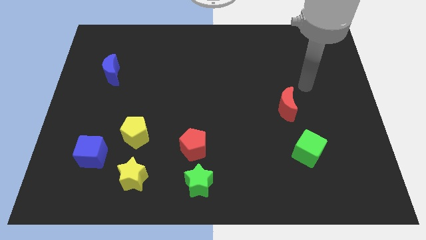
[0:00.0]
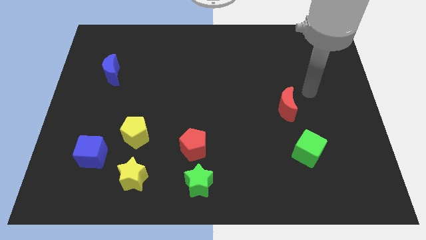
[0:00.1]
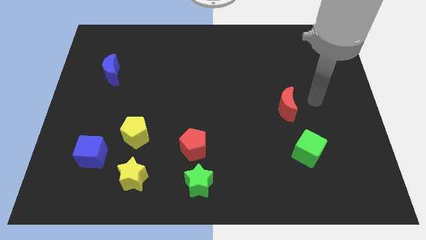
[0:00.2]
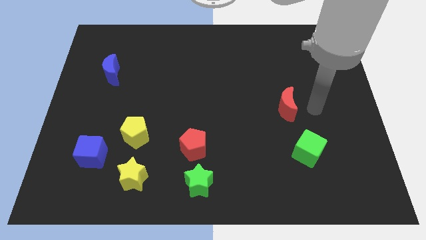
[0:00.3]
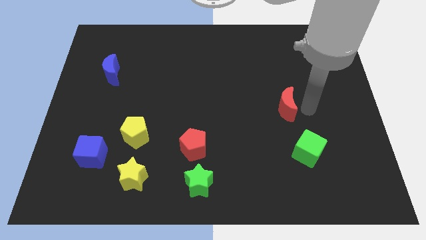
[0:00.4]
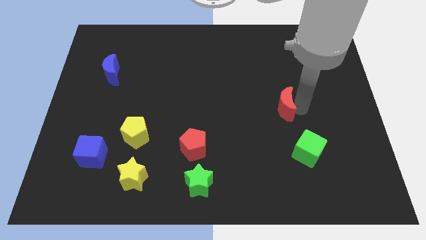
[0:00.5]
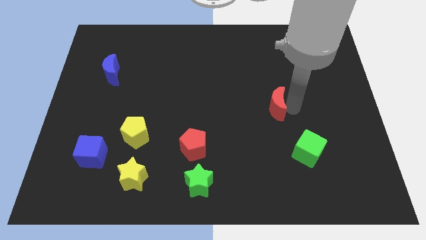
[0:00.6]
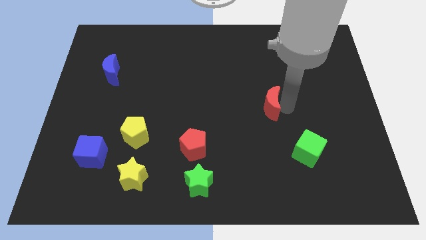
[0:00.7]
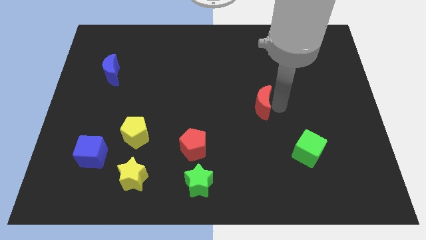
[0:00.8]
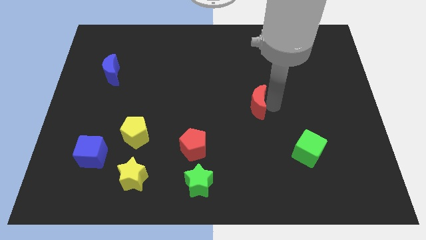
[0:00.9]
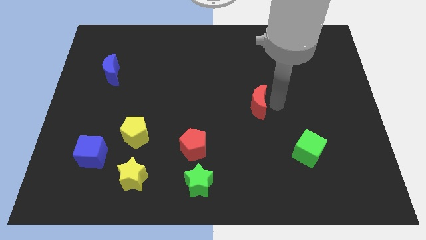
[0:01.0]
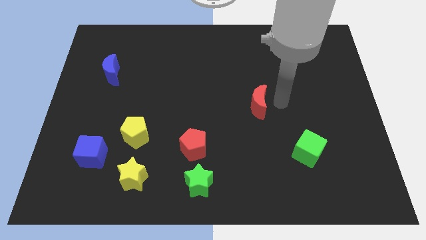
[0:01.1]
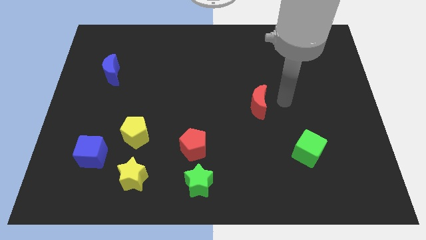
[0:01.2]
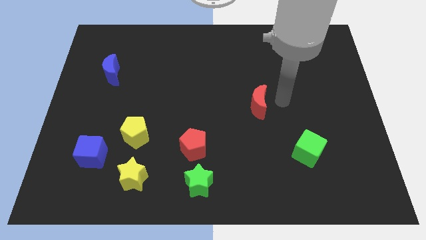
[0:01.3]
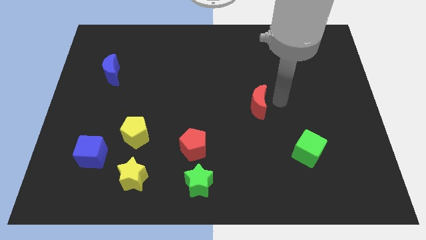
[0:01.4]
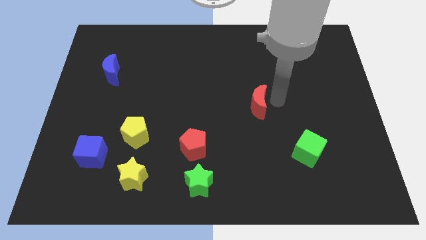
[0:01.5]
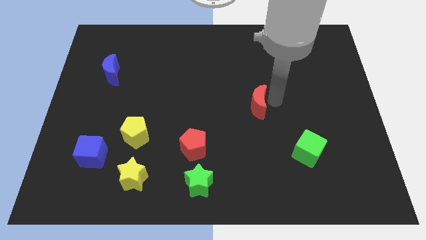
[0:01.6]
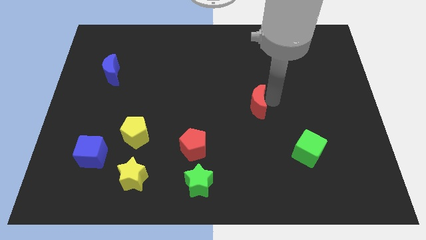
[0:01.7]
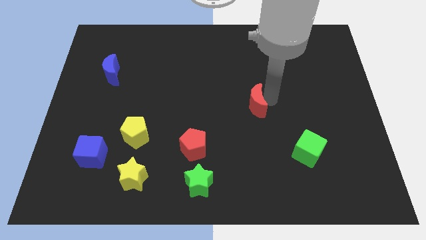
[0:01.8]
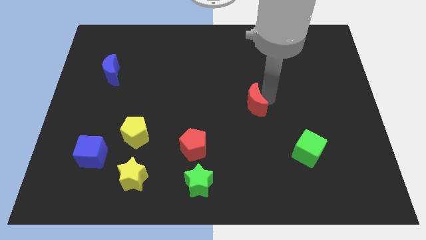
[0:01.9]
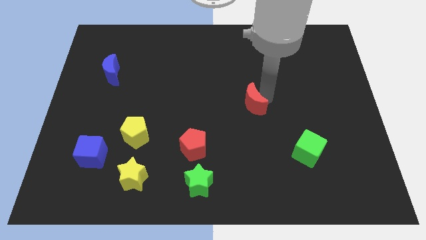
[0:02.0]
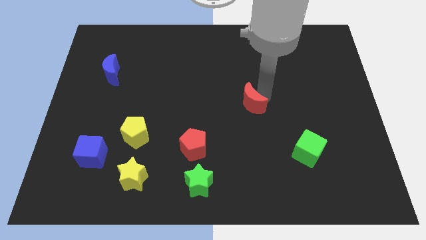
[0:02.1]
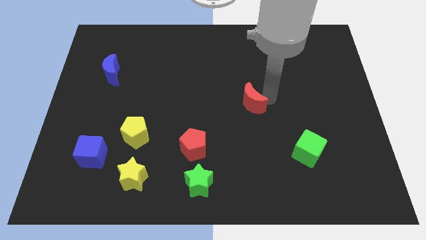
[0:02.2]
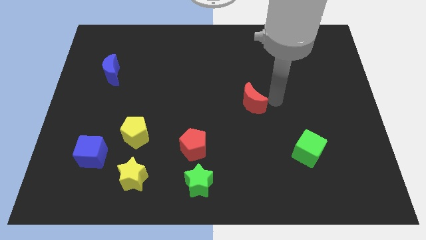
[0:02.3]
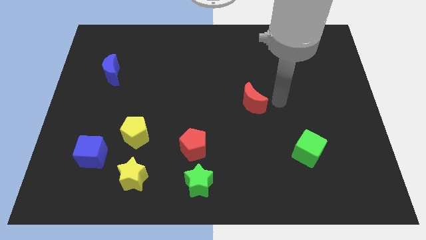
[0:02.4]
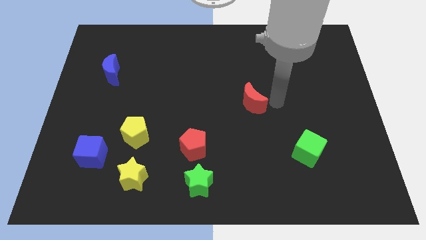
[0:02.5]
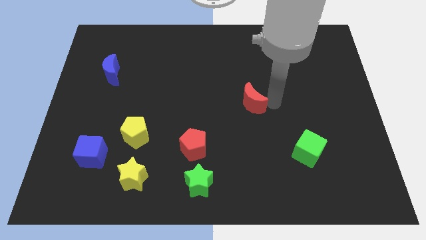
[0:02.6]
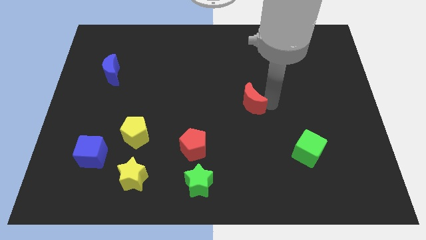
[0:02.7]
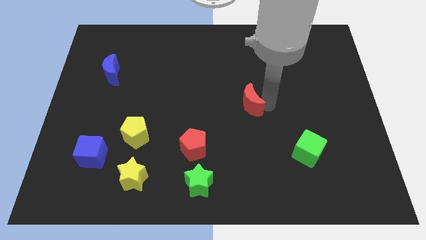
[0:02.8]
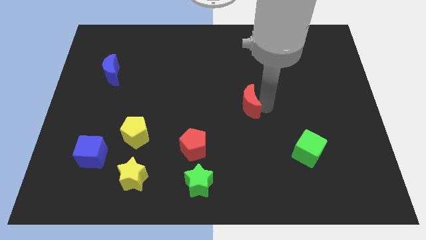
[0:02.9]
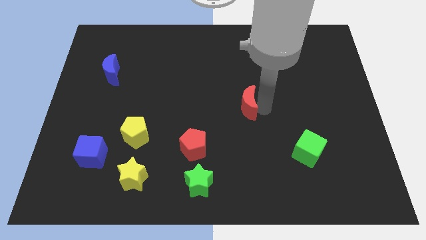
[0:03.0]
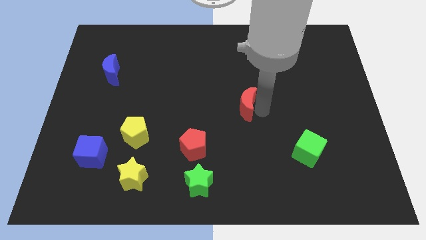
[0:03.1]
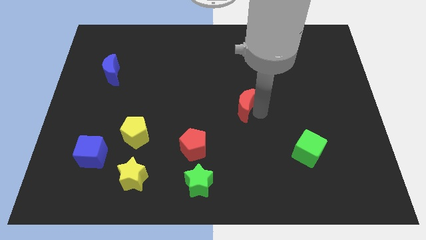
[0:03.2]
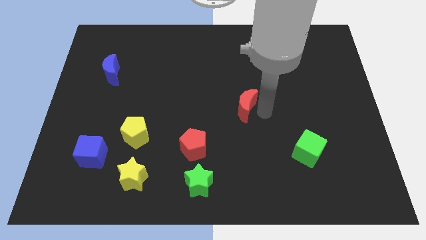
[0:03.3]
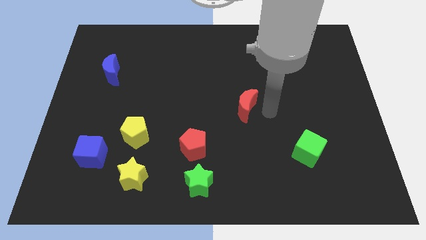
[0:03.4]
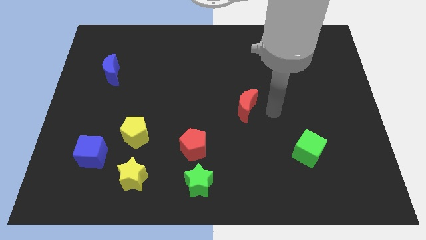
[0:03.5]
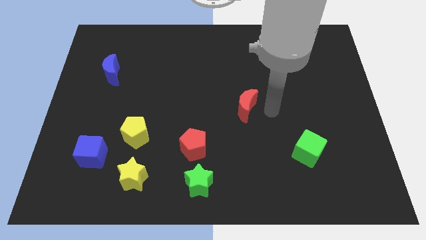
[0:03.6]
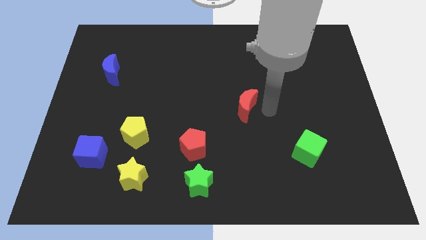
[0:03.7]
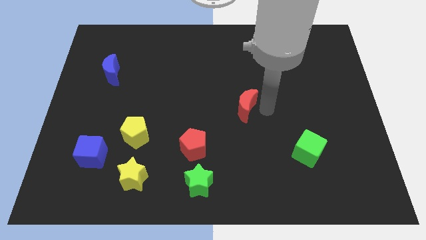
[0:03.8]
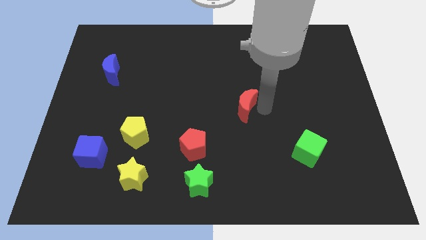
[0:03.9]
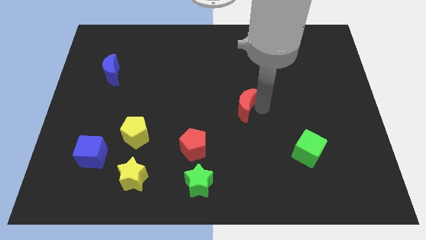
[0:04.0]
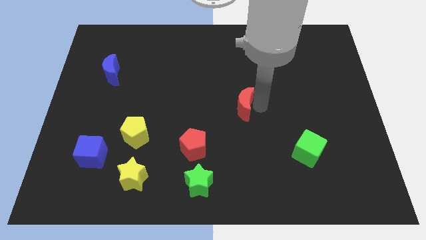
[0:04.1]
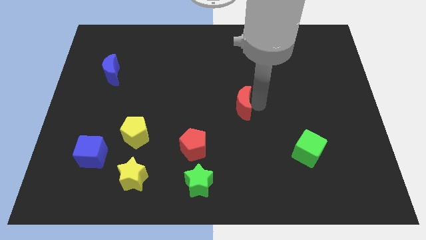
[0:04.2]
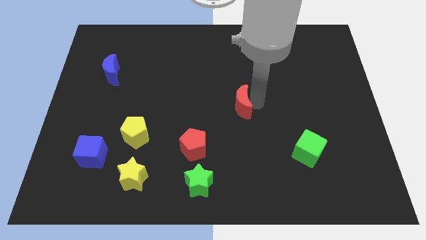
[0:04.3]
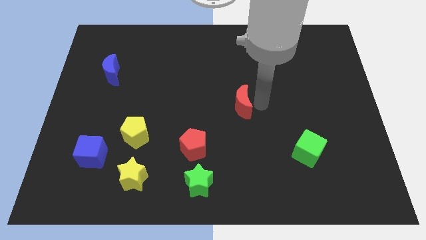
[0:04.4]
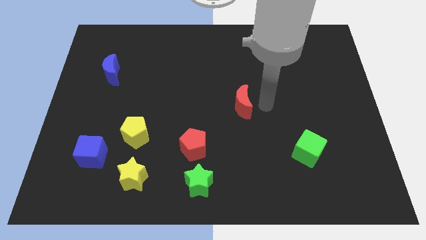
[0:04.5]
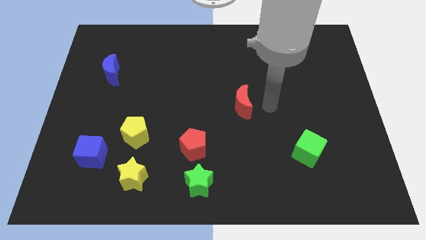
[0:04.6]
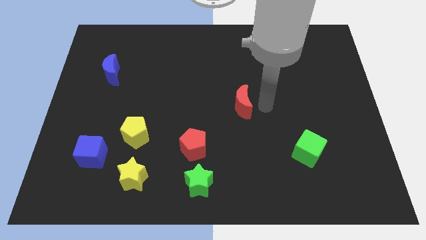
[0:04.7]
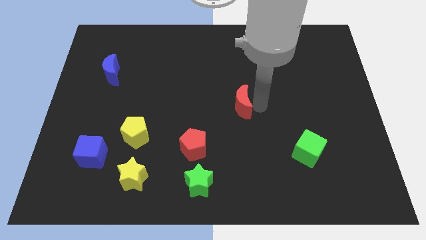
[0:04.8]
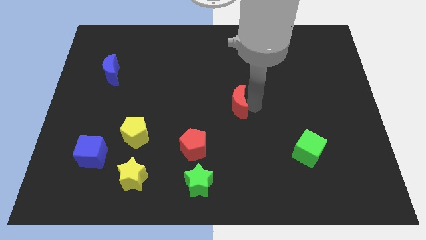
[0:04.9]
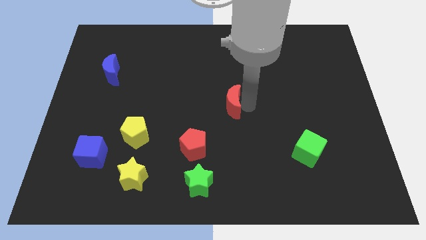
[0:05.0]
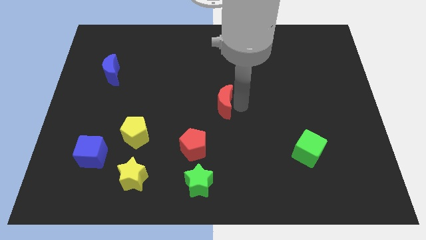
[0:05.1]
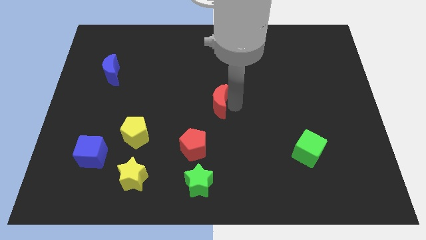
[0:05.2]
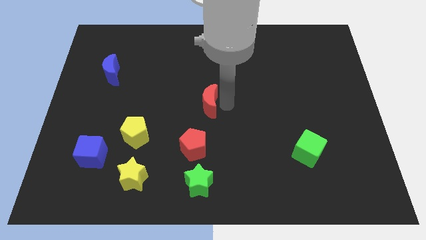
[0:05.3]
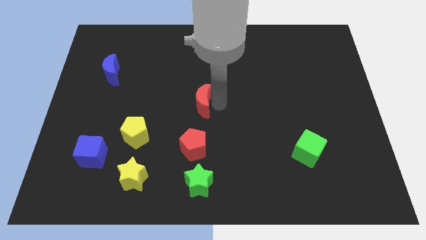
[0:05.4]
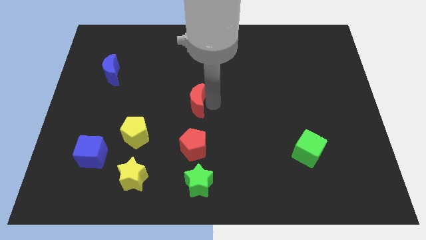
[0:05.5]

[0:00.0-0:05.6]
slide the red moon left

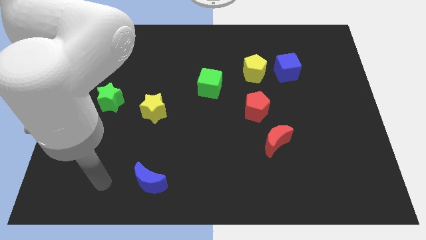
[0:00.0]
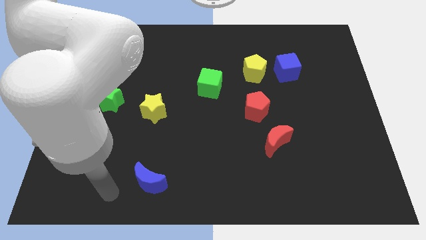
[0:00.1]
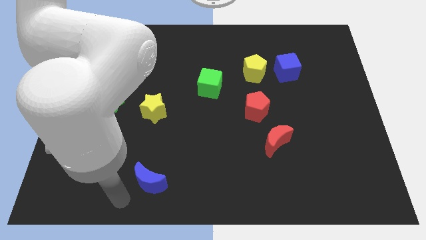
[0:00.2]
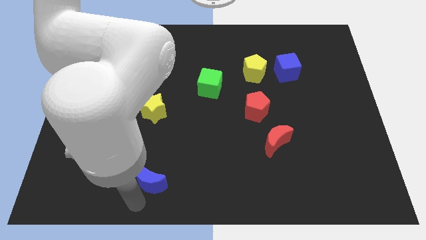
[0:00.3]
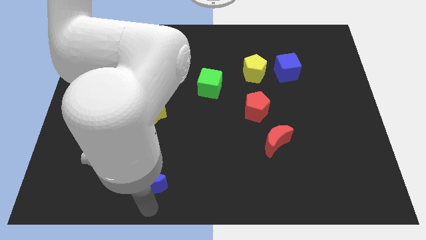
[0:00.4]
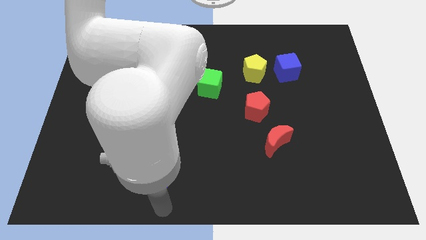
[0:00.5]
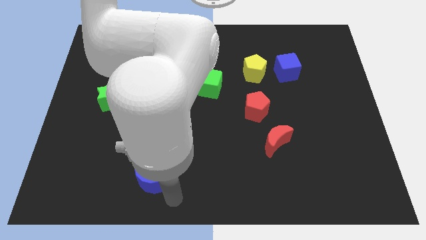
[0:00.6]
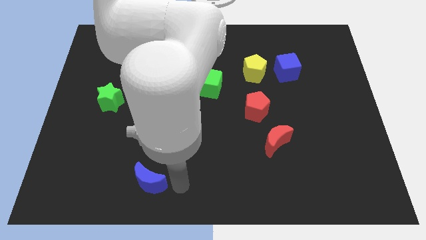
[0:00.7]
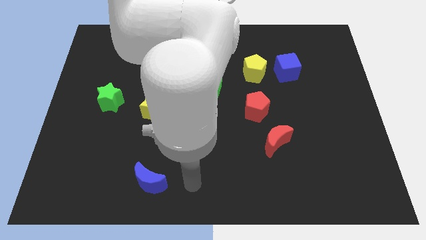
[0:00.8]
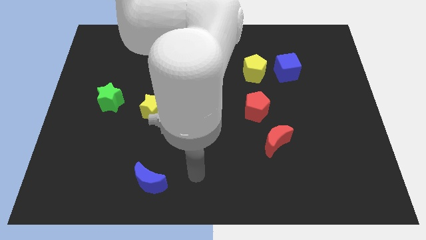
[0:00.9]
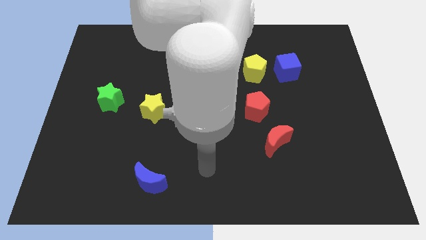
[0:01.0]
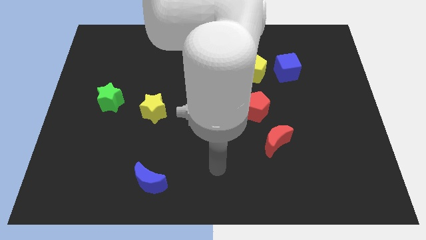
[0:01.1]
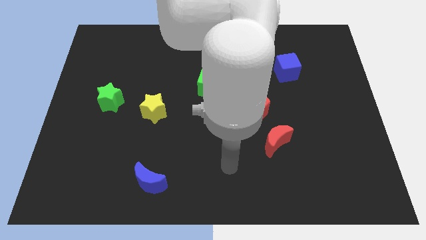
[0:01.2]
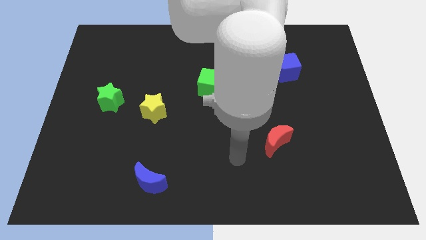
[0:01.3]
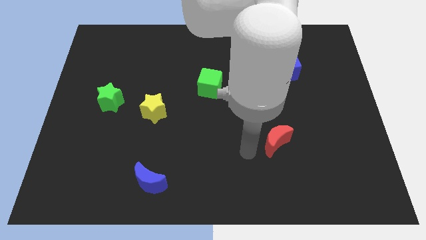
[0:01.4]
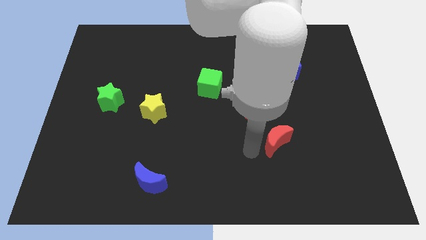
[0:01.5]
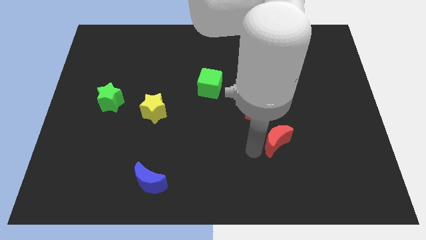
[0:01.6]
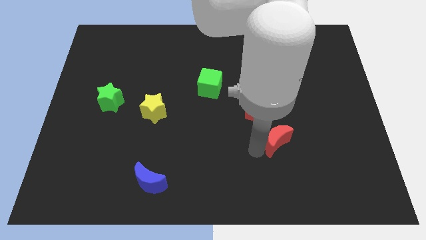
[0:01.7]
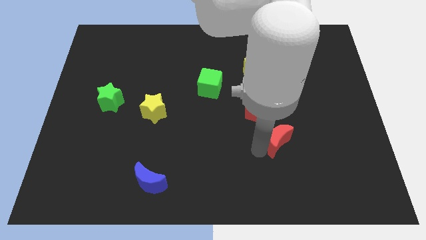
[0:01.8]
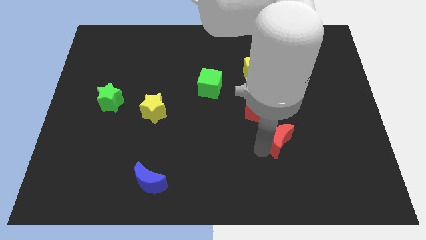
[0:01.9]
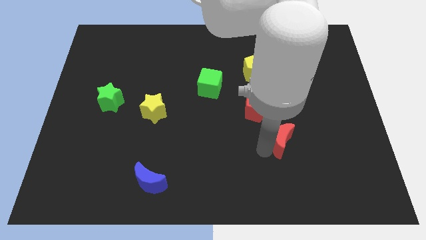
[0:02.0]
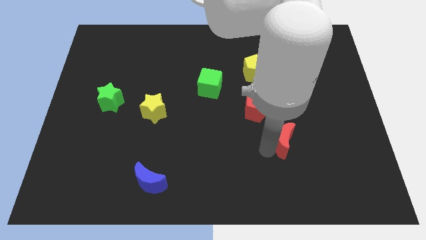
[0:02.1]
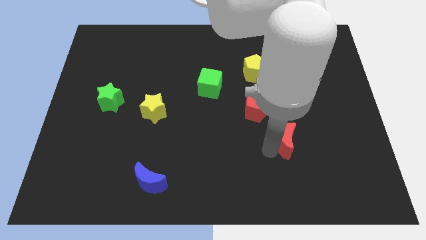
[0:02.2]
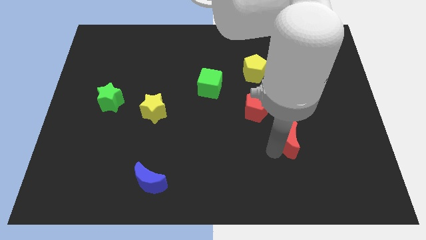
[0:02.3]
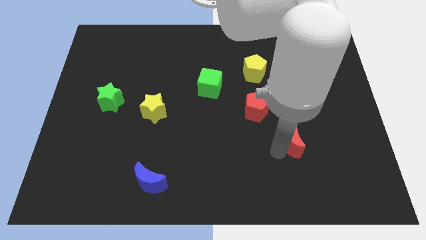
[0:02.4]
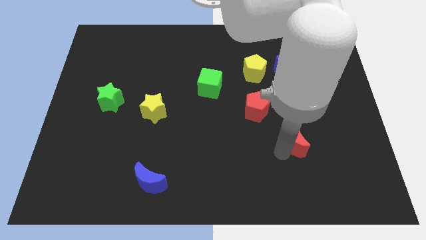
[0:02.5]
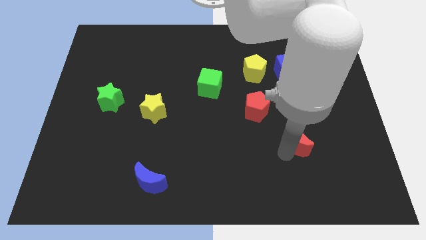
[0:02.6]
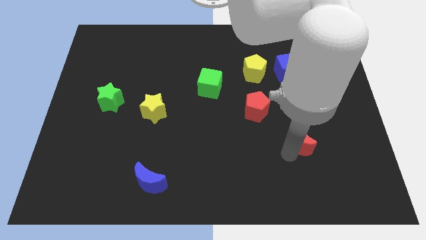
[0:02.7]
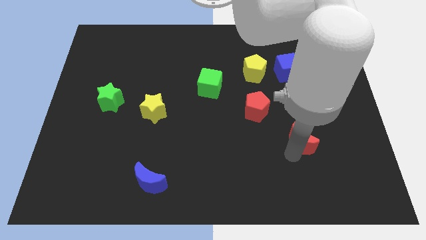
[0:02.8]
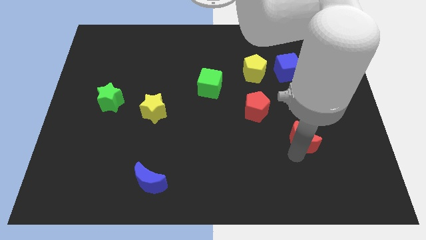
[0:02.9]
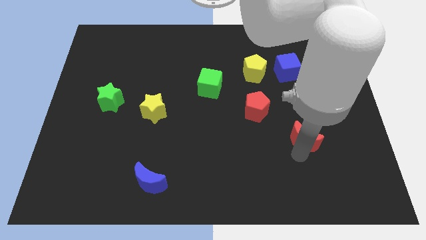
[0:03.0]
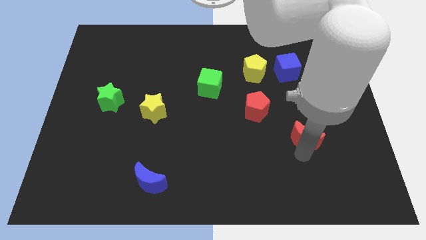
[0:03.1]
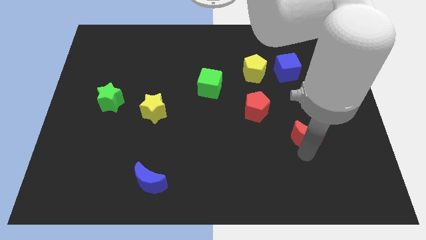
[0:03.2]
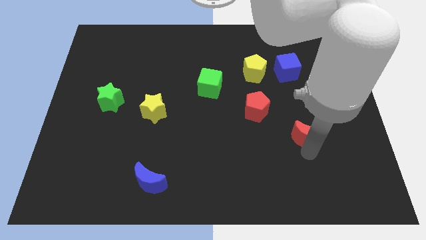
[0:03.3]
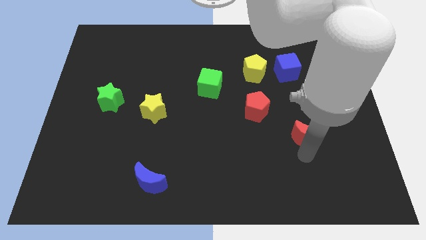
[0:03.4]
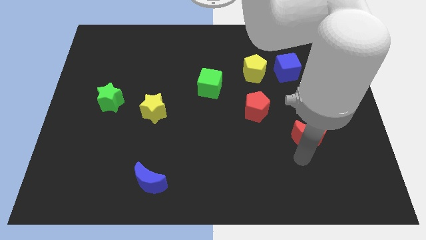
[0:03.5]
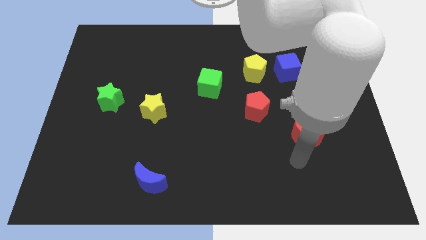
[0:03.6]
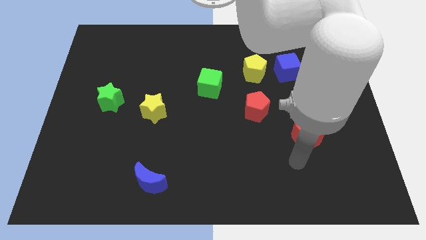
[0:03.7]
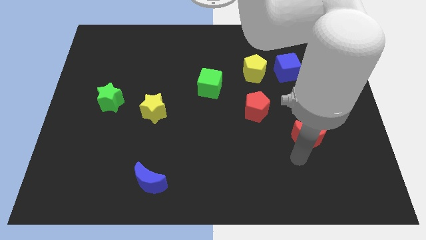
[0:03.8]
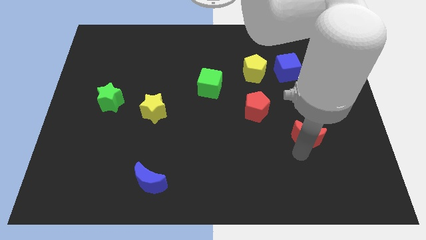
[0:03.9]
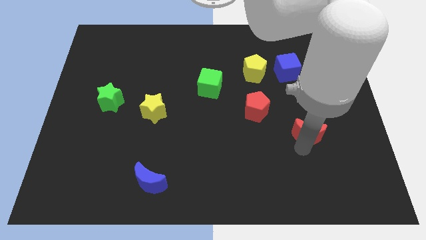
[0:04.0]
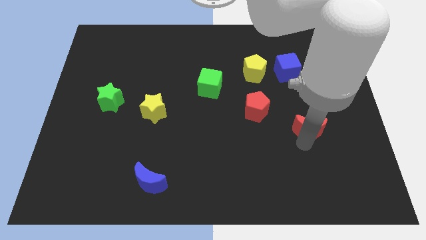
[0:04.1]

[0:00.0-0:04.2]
slightly move the red moon diagonally up and right
